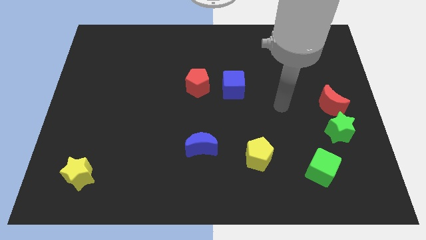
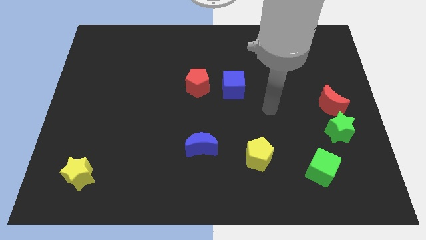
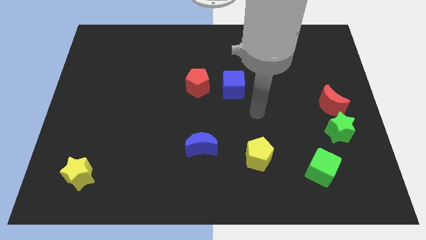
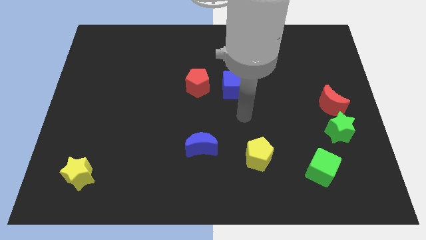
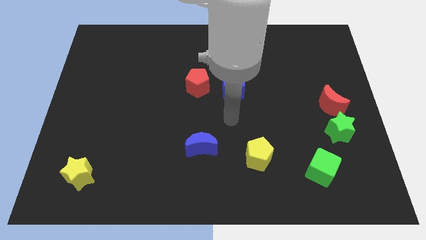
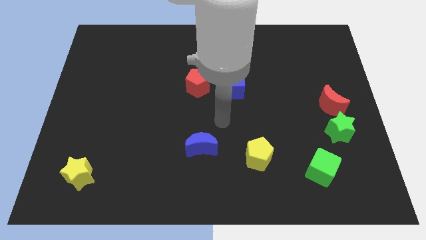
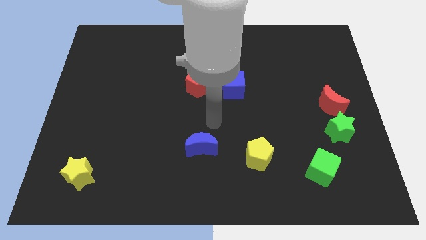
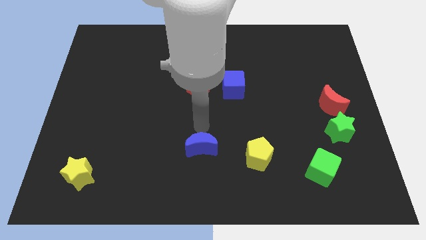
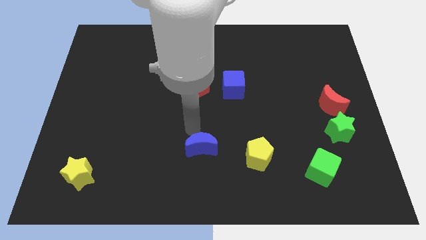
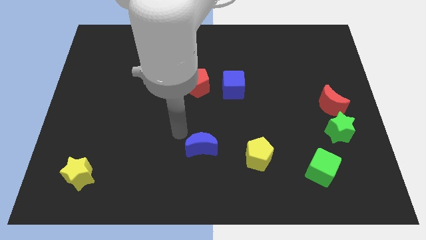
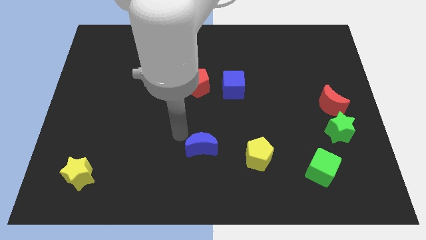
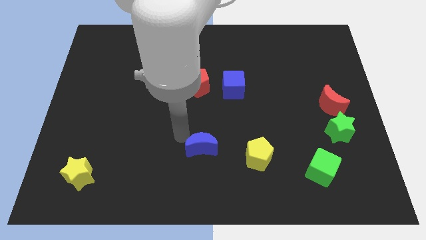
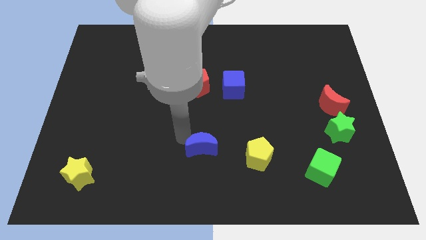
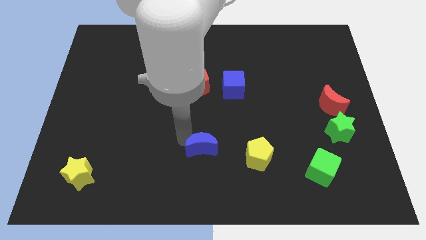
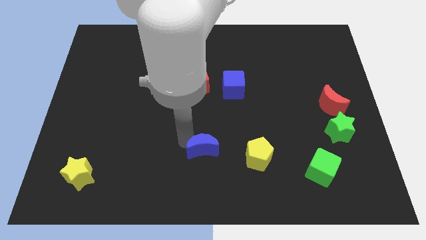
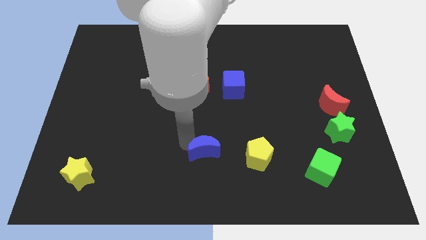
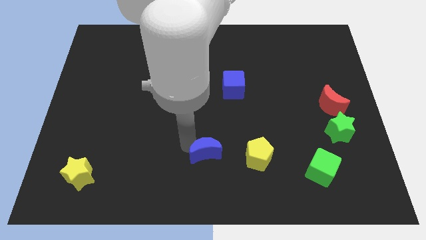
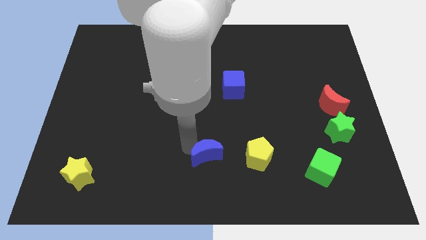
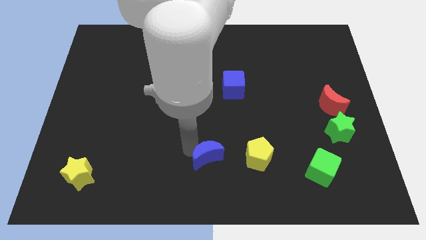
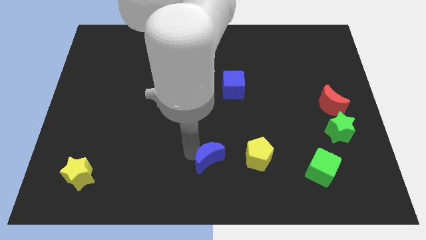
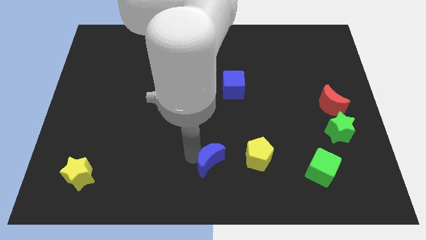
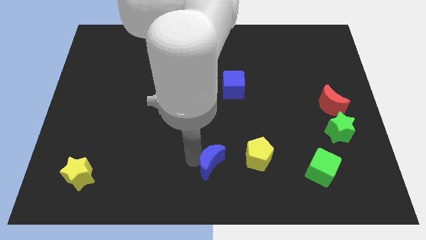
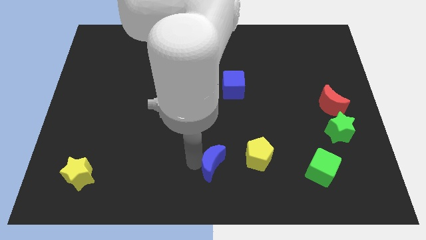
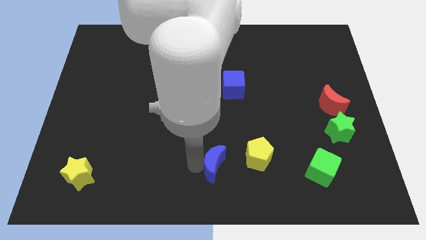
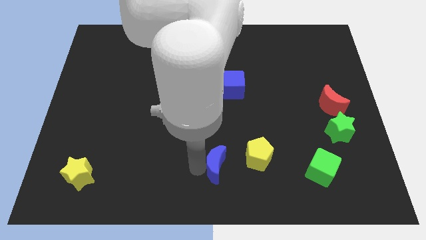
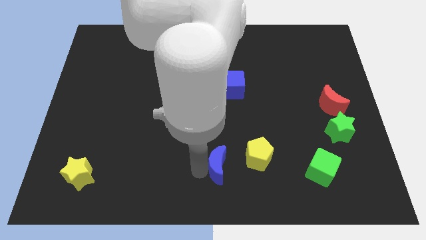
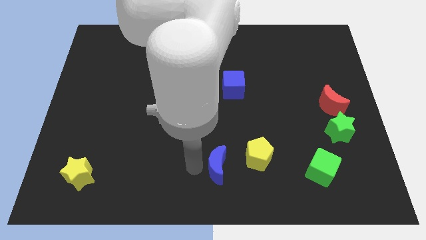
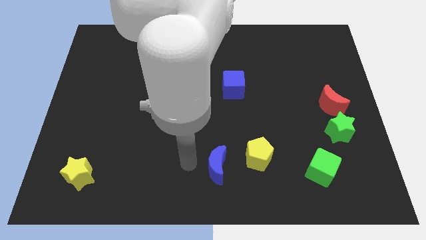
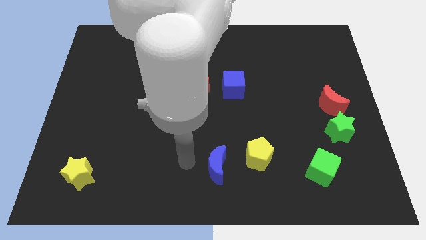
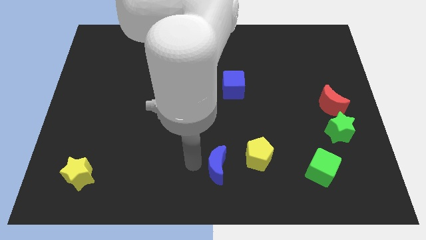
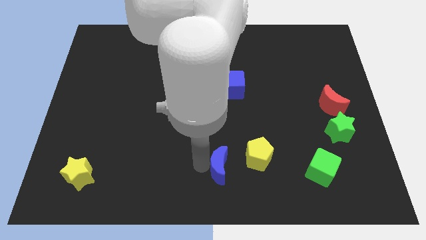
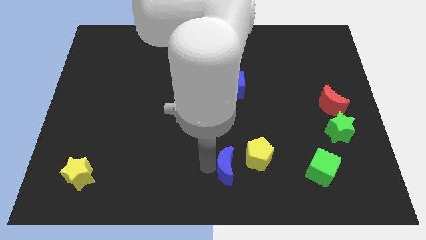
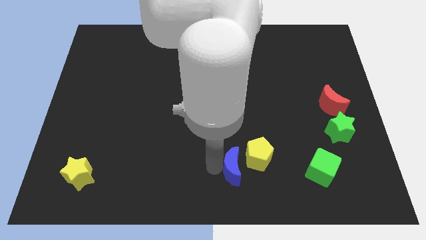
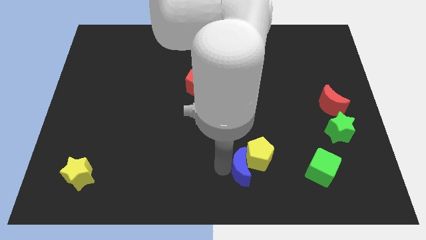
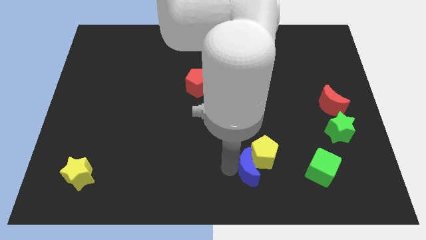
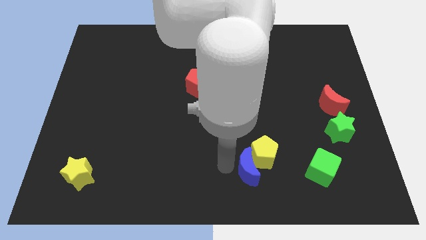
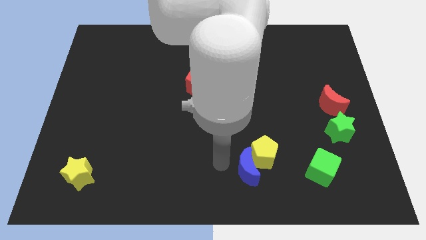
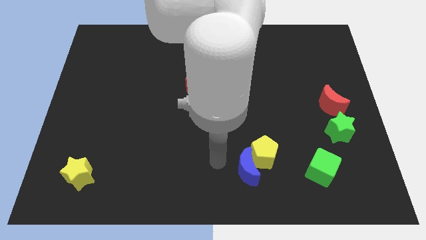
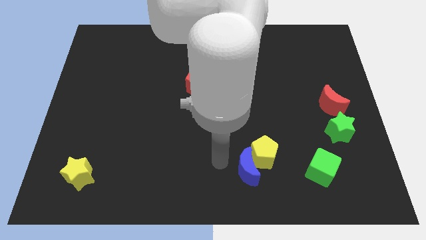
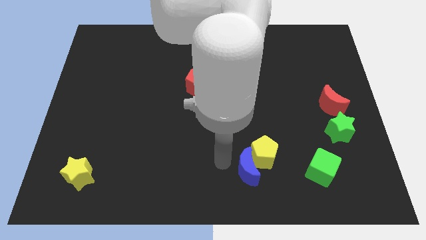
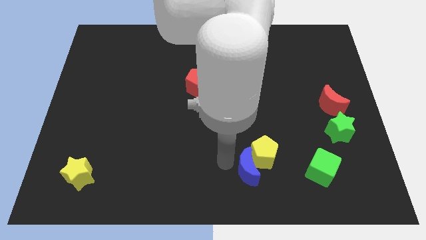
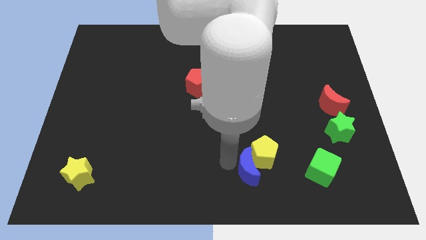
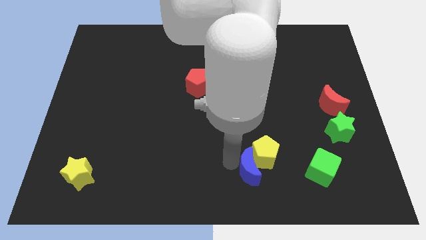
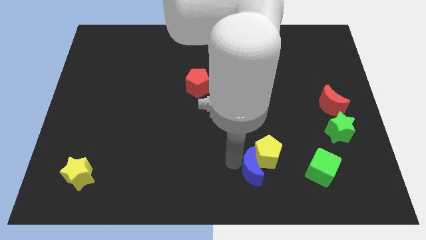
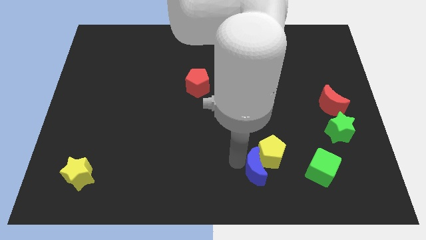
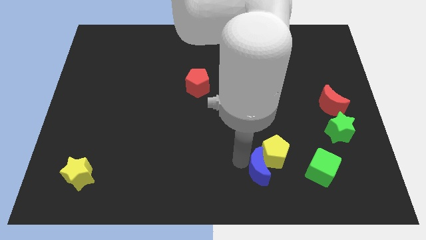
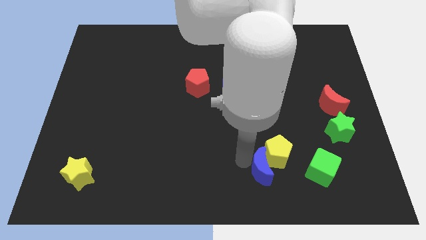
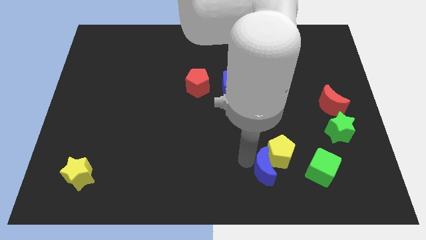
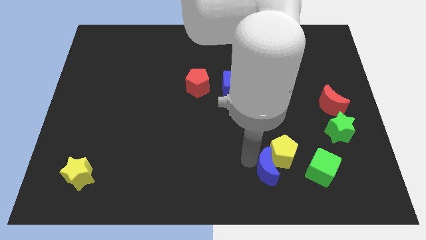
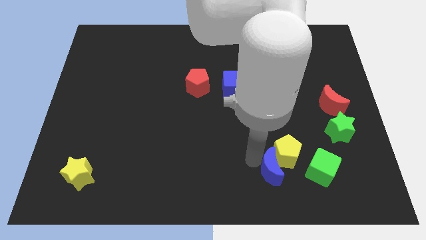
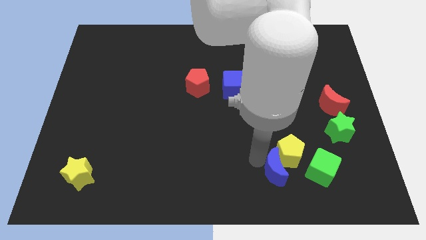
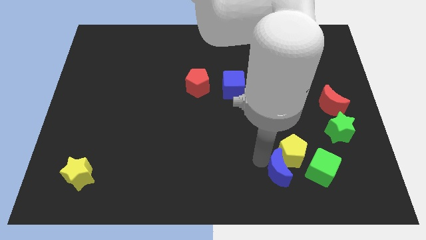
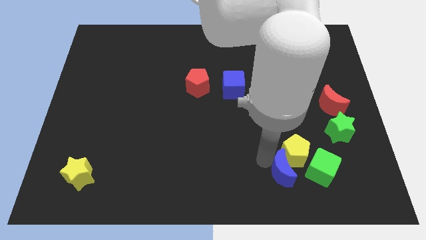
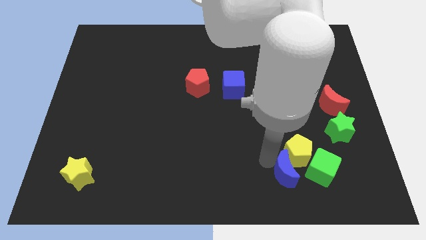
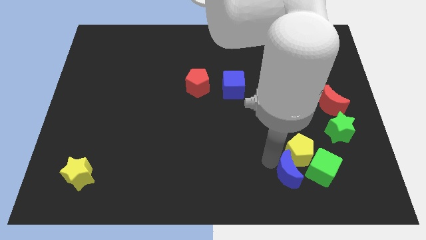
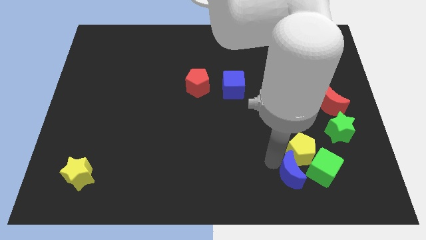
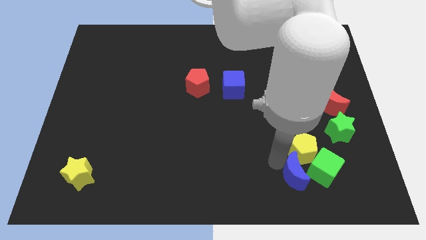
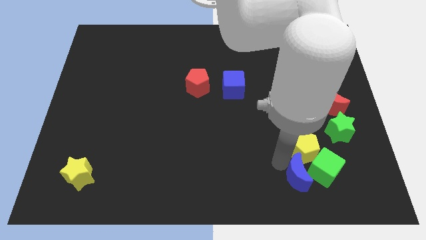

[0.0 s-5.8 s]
push the blue moon close to the green cube

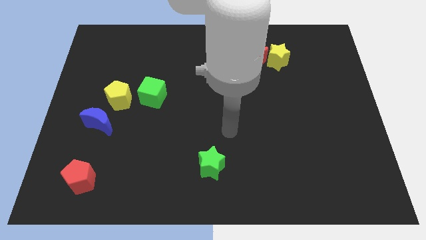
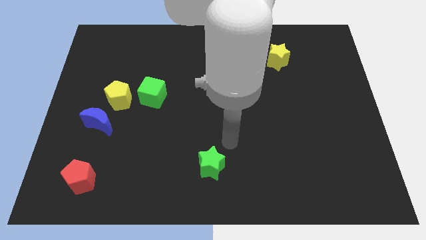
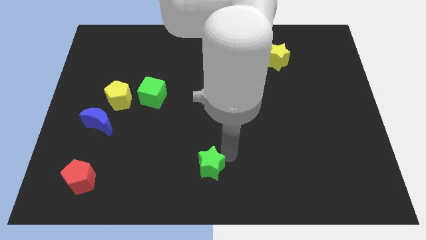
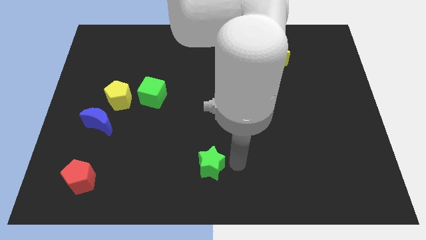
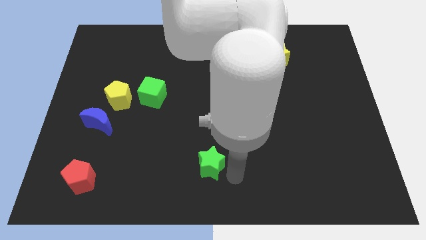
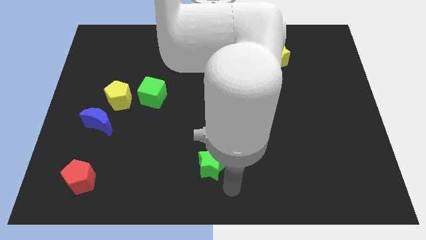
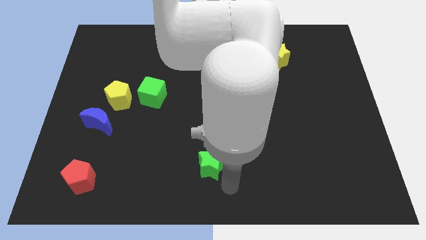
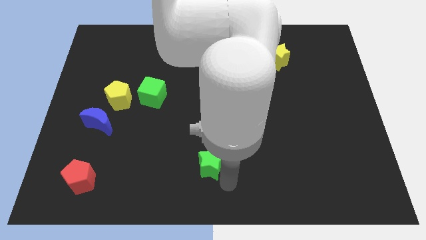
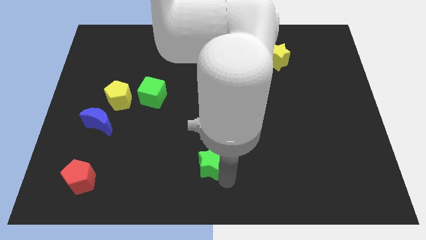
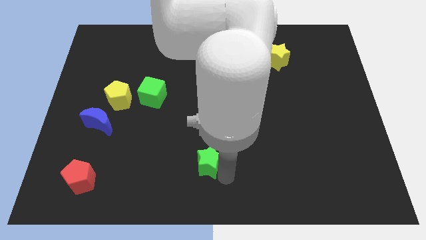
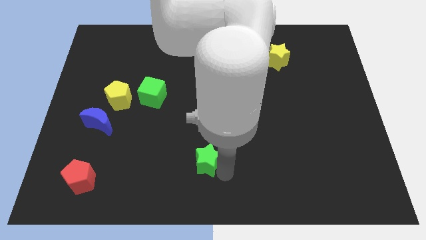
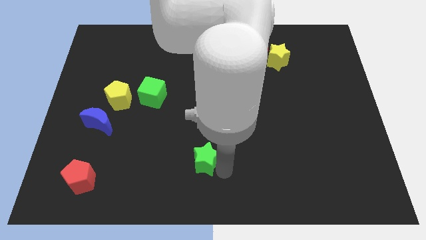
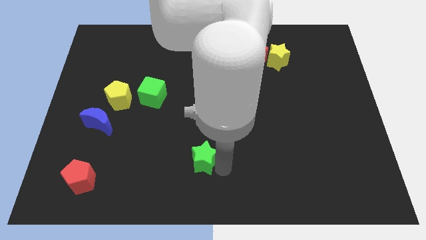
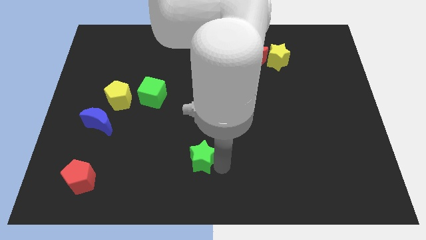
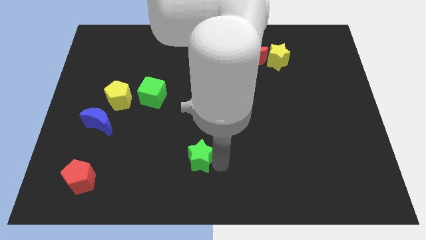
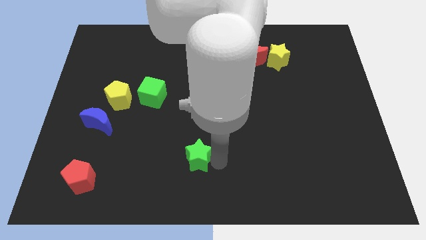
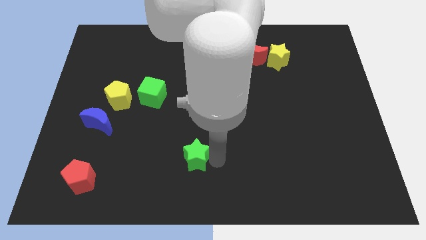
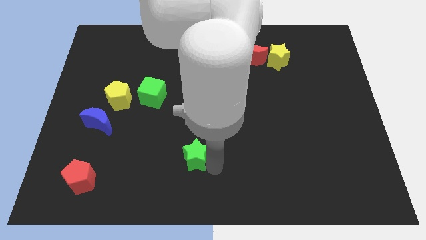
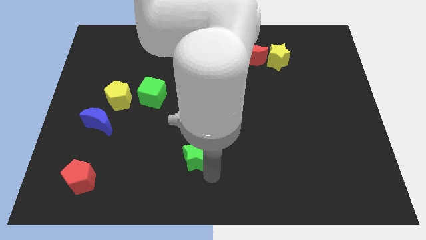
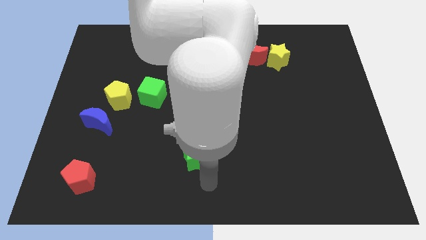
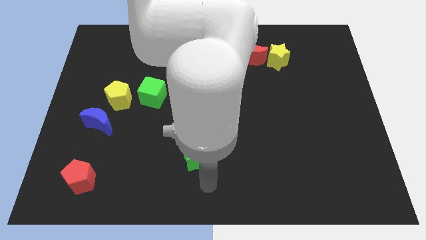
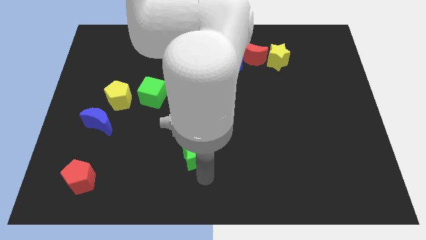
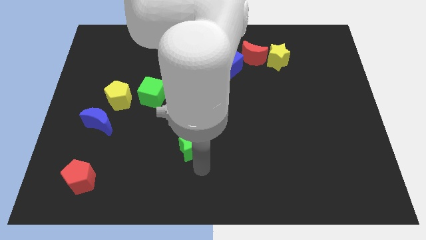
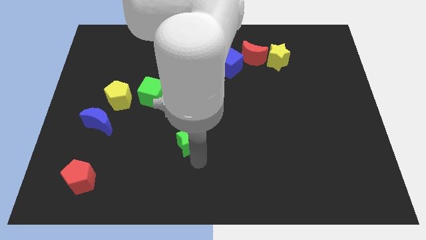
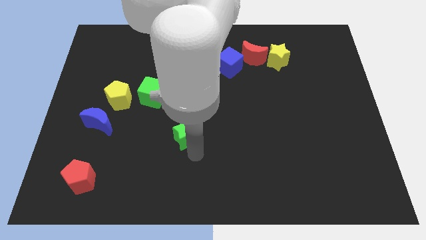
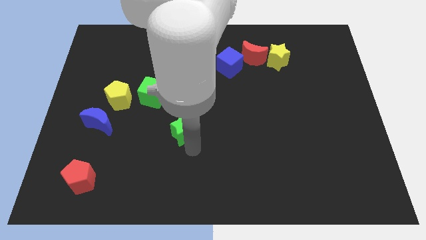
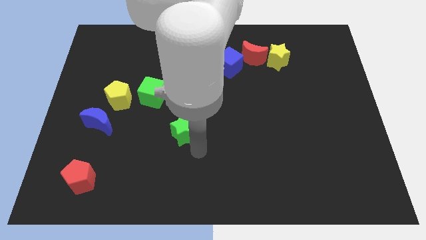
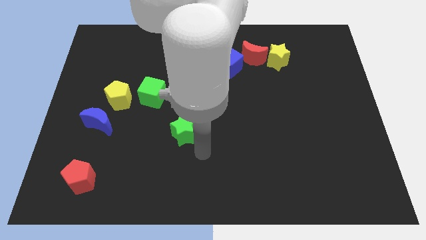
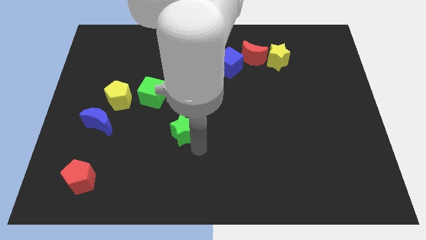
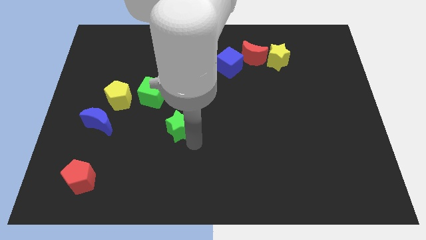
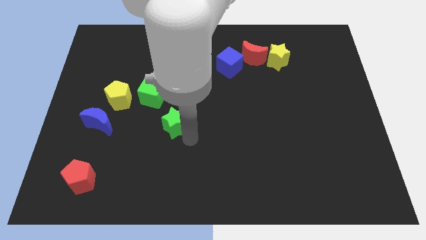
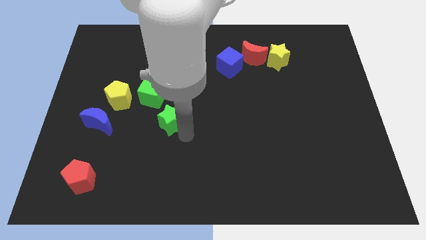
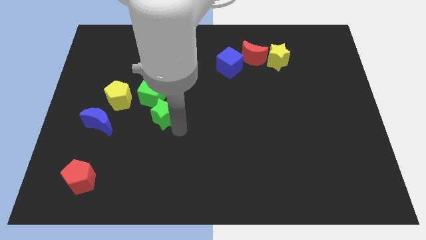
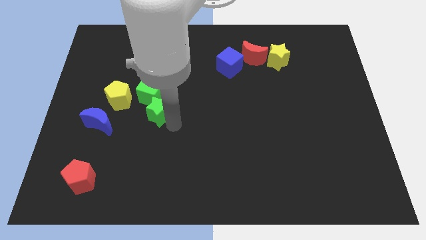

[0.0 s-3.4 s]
slide the green star close to the green cube
